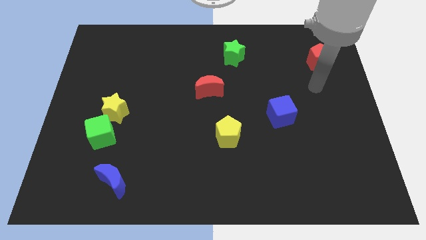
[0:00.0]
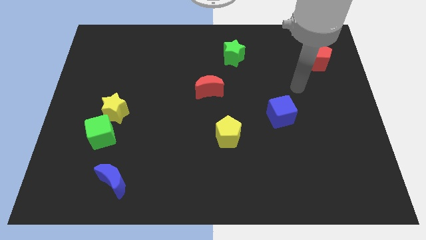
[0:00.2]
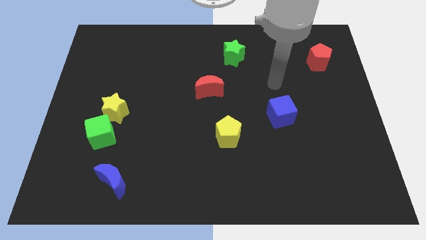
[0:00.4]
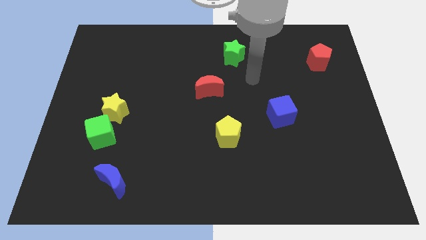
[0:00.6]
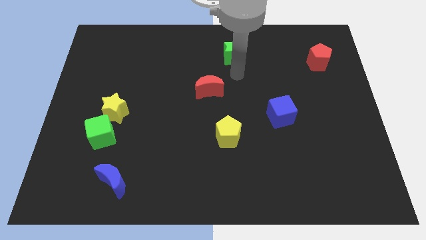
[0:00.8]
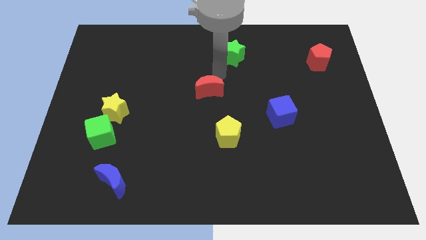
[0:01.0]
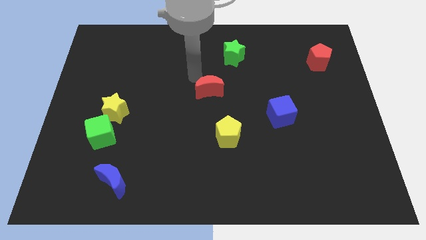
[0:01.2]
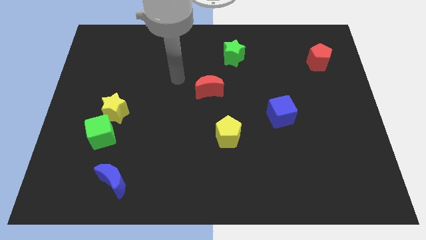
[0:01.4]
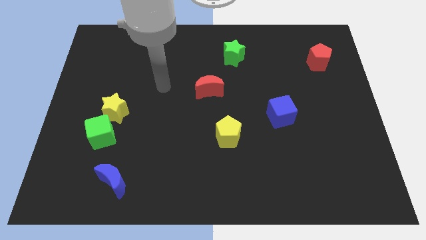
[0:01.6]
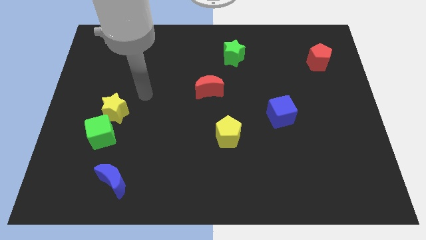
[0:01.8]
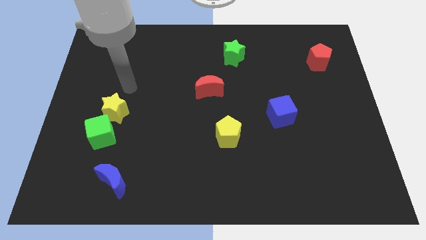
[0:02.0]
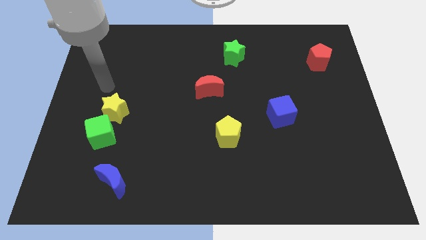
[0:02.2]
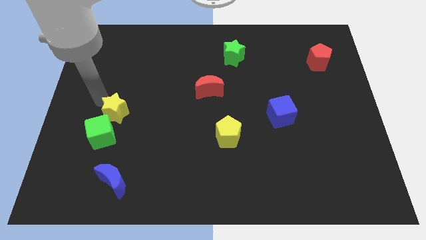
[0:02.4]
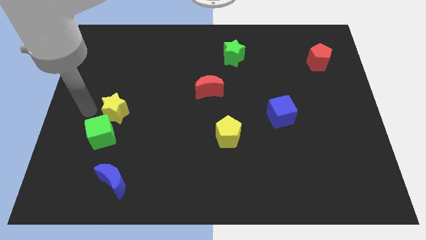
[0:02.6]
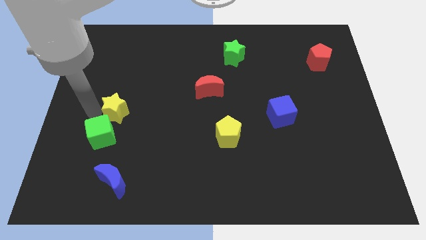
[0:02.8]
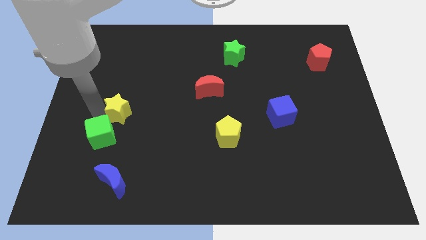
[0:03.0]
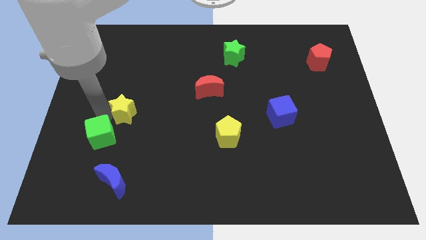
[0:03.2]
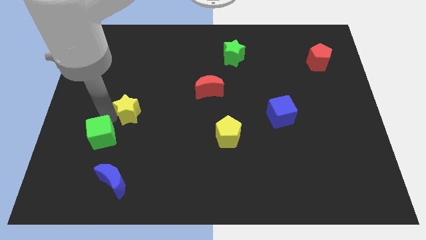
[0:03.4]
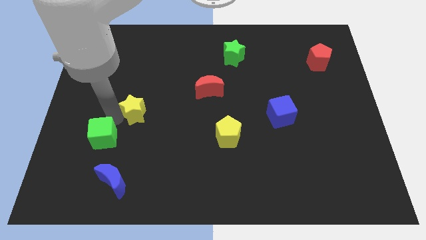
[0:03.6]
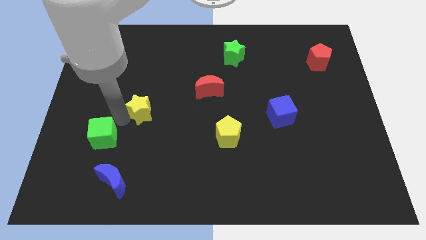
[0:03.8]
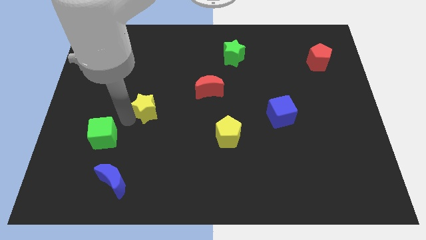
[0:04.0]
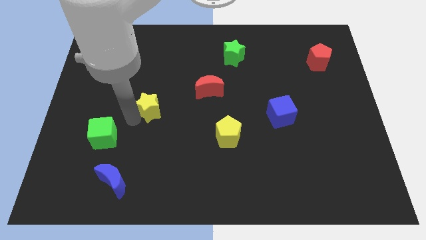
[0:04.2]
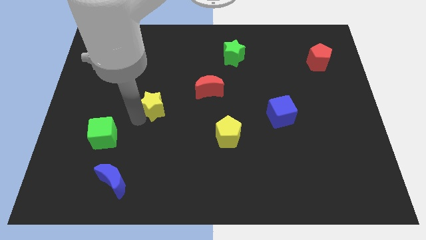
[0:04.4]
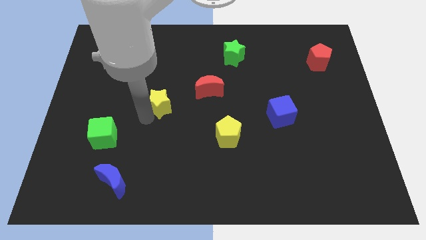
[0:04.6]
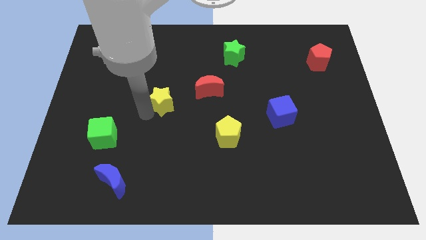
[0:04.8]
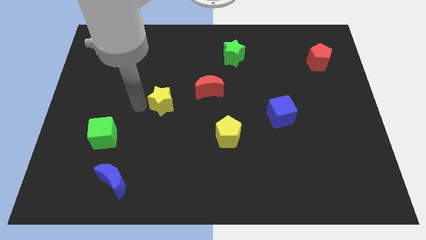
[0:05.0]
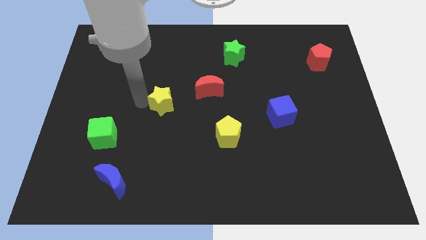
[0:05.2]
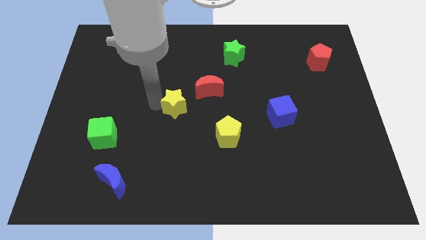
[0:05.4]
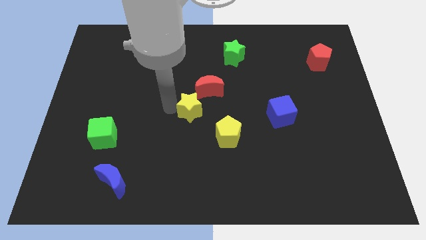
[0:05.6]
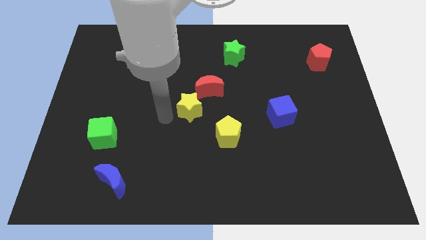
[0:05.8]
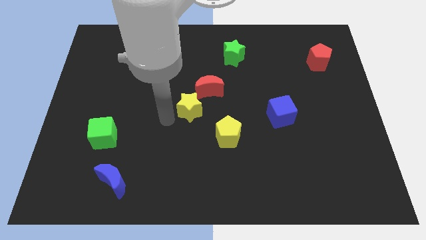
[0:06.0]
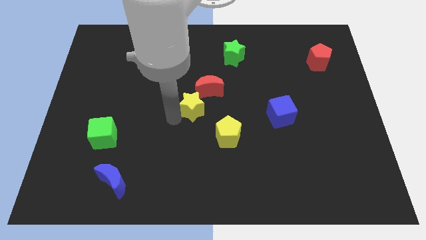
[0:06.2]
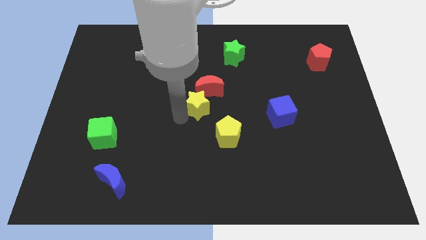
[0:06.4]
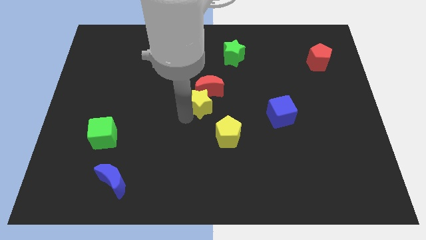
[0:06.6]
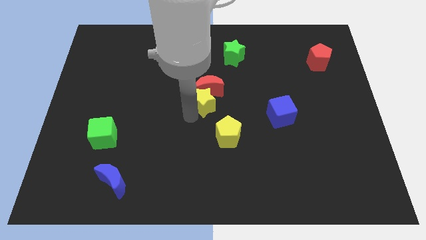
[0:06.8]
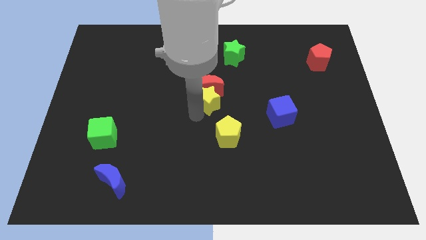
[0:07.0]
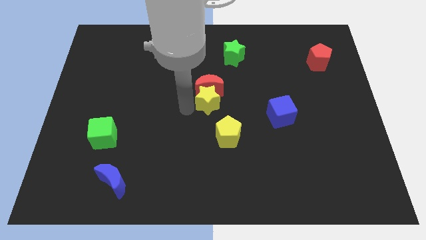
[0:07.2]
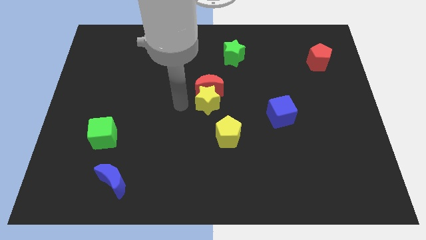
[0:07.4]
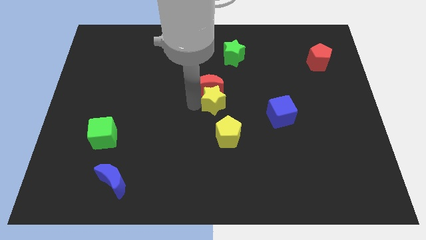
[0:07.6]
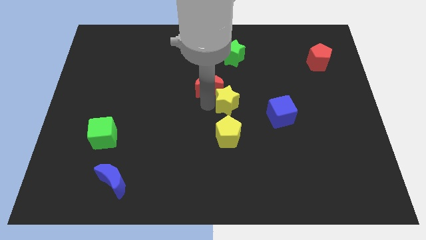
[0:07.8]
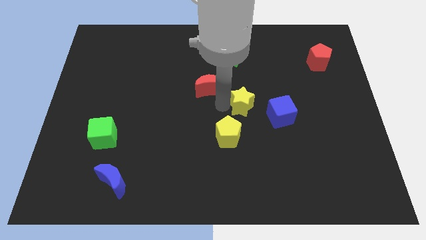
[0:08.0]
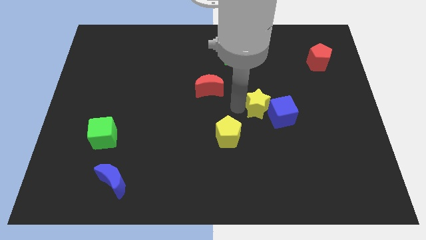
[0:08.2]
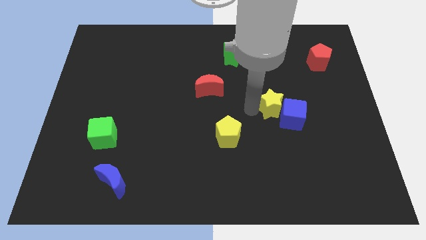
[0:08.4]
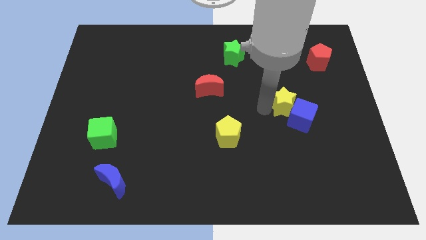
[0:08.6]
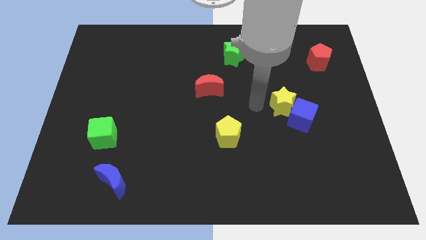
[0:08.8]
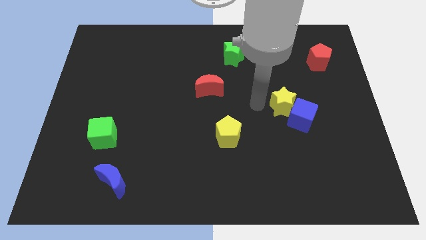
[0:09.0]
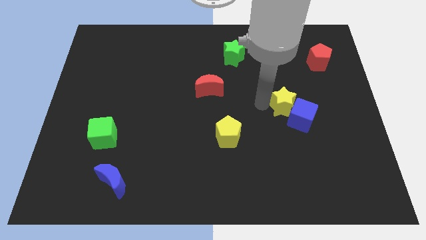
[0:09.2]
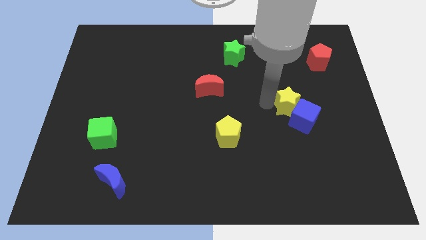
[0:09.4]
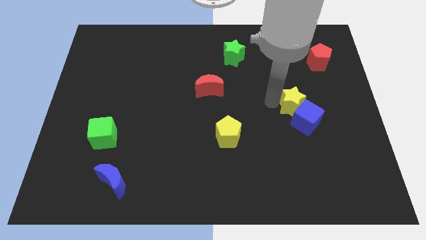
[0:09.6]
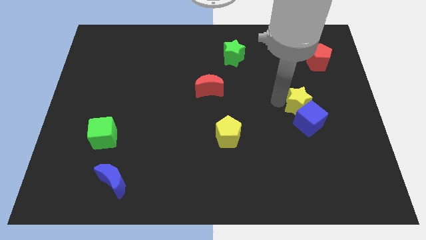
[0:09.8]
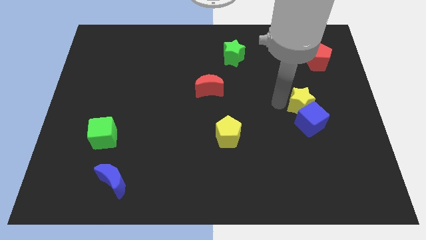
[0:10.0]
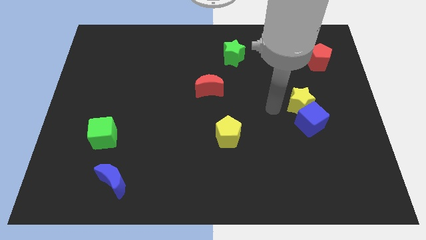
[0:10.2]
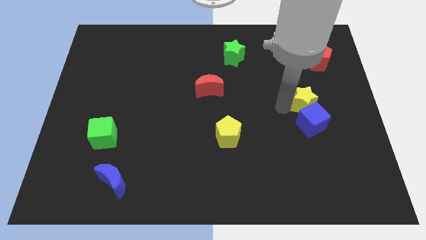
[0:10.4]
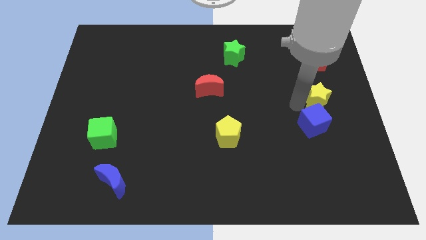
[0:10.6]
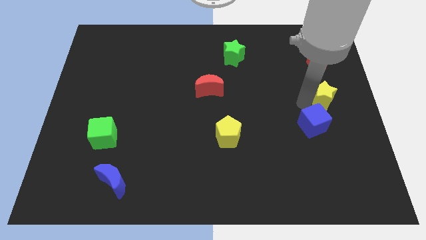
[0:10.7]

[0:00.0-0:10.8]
push the yellow star to the center right

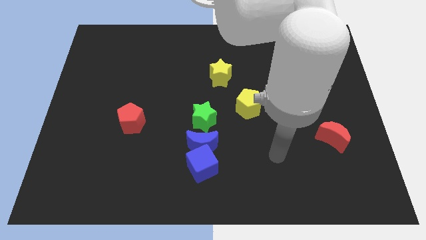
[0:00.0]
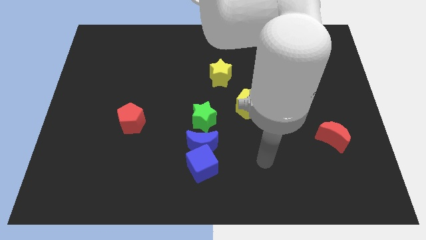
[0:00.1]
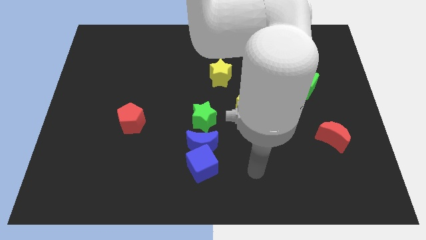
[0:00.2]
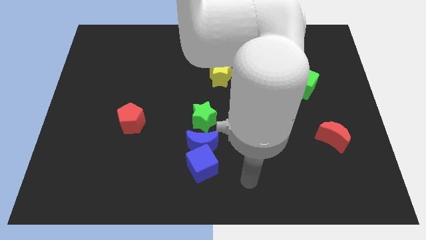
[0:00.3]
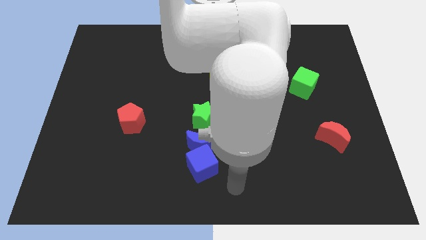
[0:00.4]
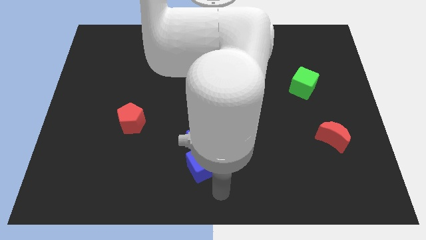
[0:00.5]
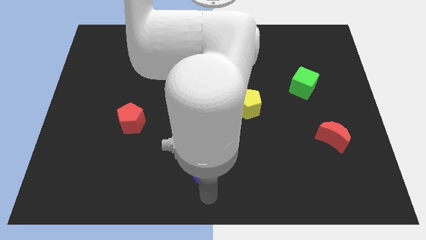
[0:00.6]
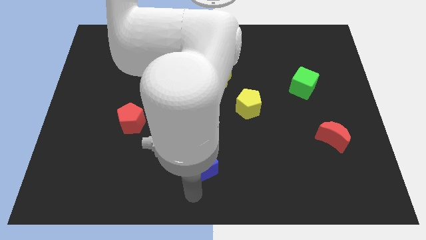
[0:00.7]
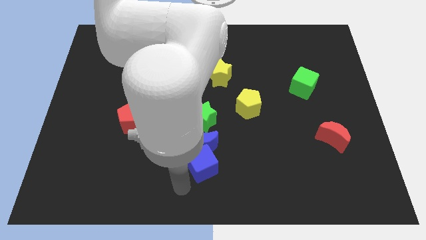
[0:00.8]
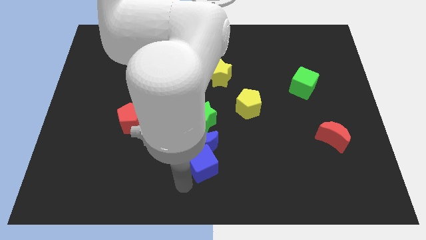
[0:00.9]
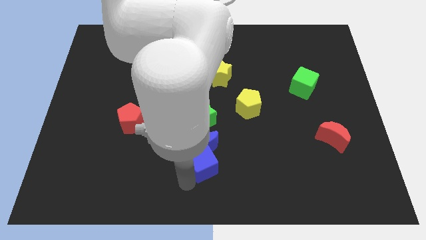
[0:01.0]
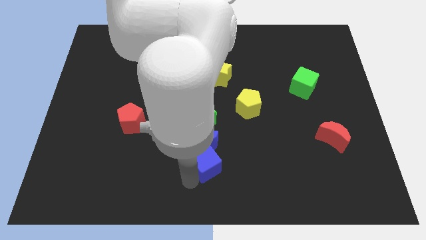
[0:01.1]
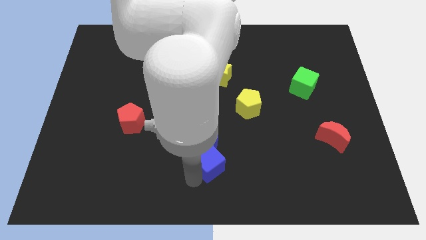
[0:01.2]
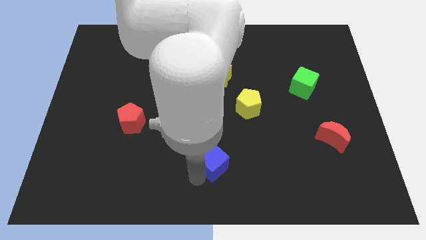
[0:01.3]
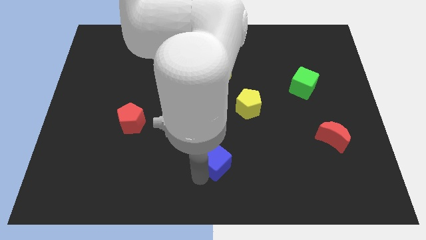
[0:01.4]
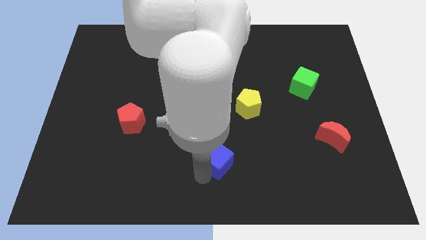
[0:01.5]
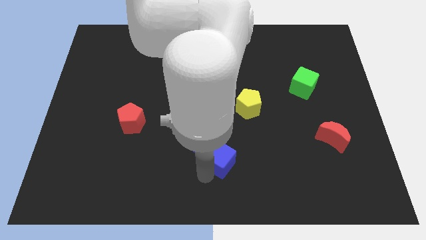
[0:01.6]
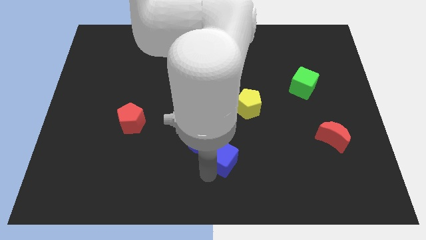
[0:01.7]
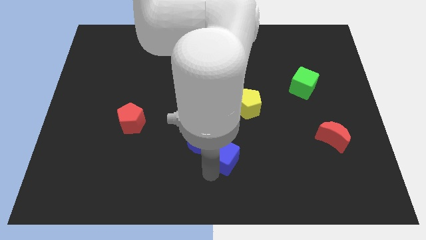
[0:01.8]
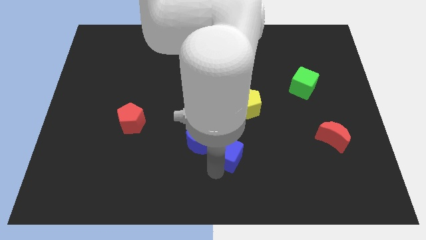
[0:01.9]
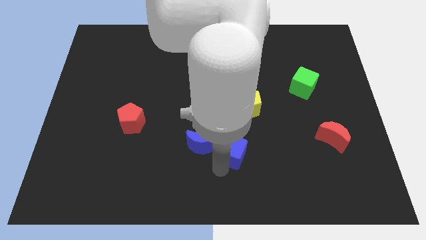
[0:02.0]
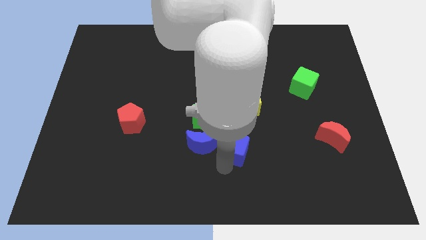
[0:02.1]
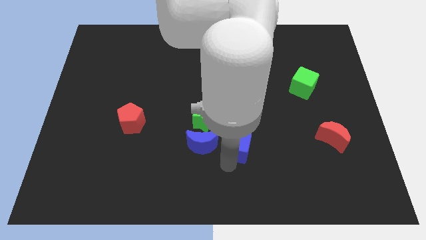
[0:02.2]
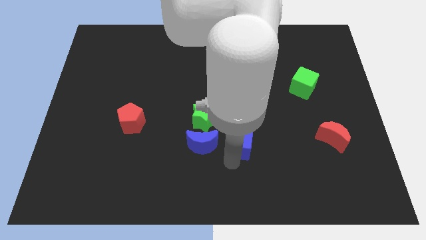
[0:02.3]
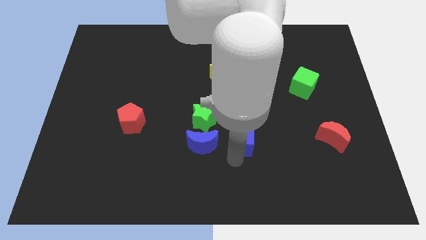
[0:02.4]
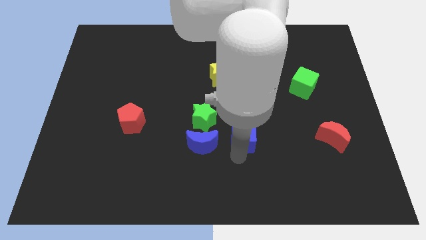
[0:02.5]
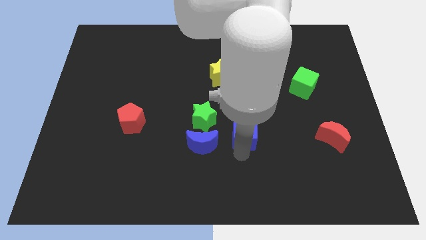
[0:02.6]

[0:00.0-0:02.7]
slide the blue cube to the center of the board
